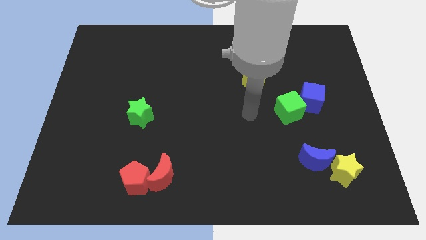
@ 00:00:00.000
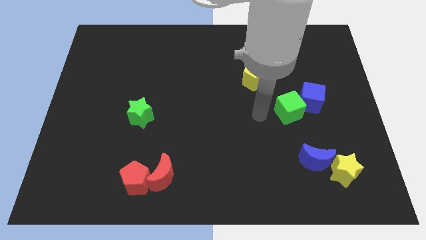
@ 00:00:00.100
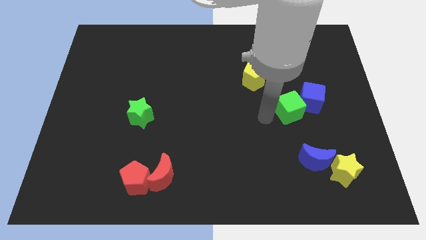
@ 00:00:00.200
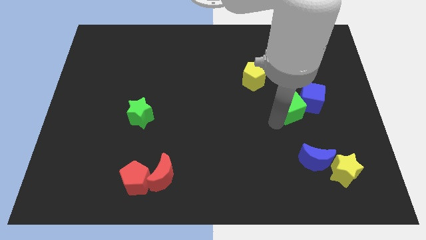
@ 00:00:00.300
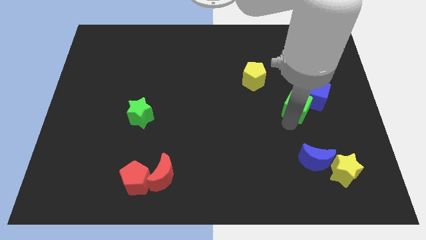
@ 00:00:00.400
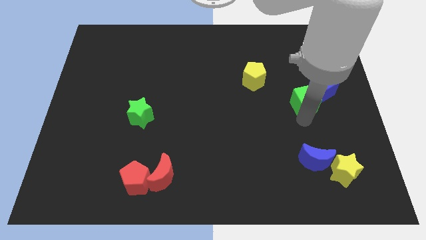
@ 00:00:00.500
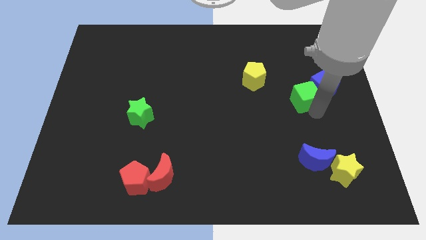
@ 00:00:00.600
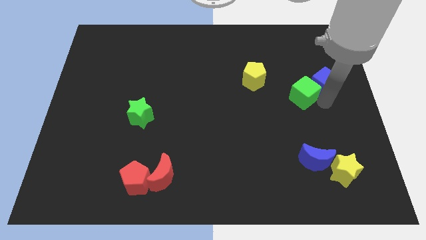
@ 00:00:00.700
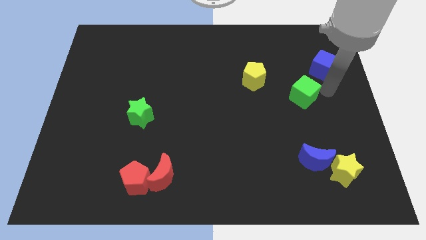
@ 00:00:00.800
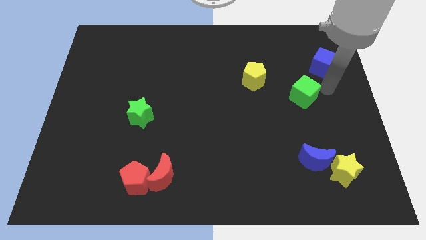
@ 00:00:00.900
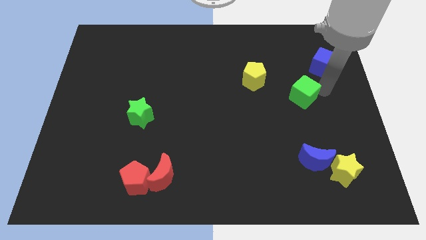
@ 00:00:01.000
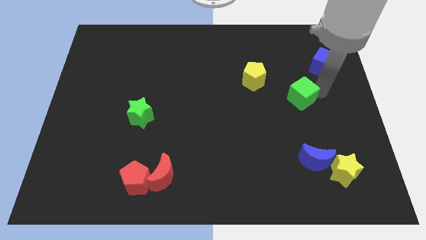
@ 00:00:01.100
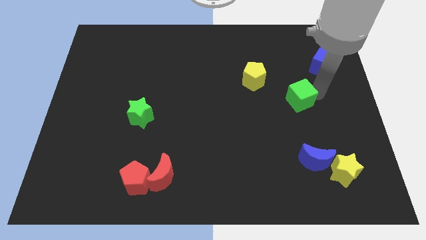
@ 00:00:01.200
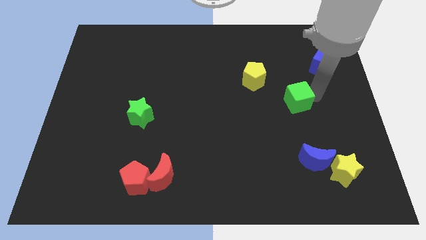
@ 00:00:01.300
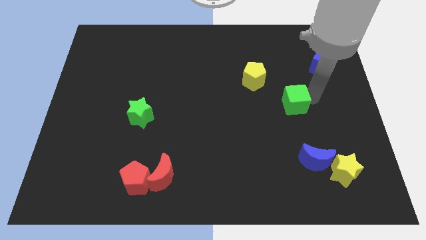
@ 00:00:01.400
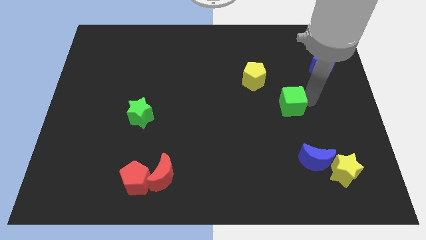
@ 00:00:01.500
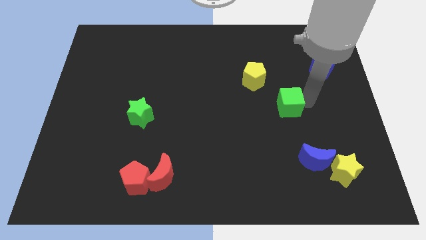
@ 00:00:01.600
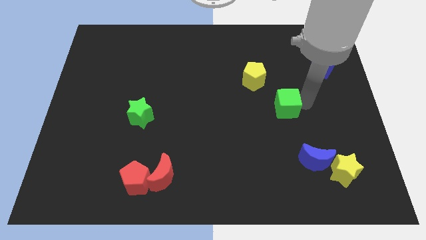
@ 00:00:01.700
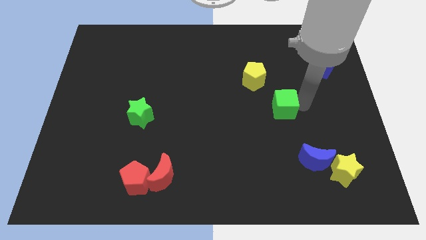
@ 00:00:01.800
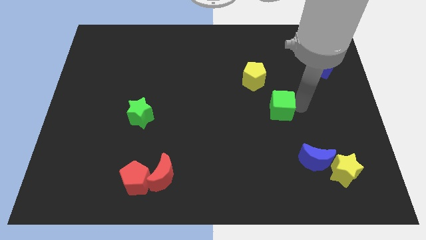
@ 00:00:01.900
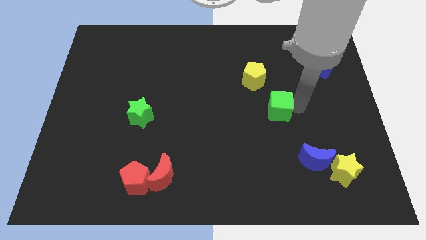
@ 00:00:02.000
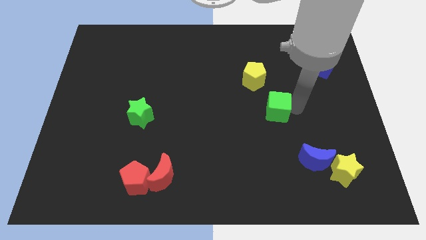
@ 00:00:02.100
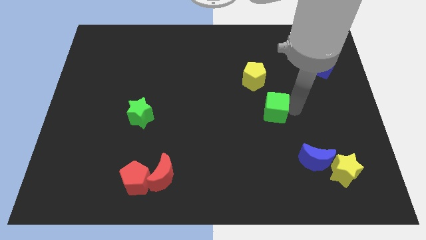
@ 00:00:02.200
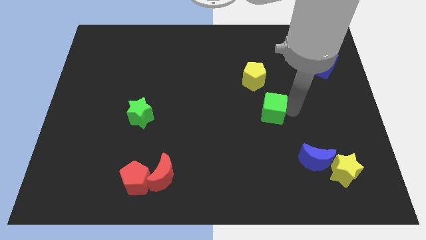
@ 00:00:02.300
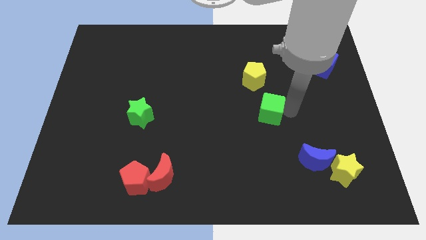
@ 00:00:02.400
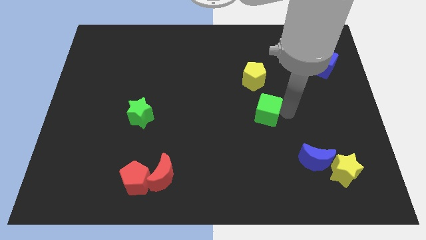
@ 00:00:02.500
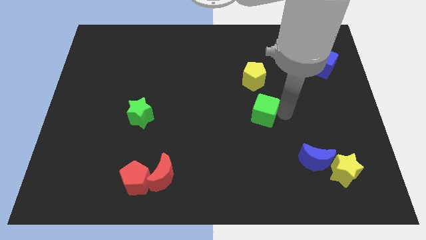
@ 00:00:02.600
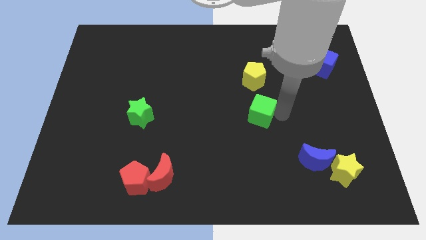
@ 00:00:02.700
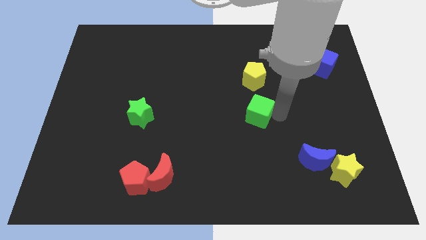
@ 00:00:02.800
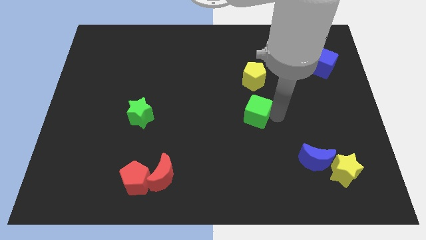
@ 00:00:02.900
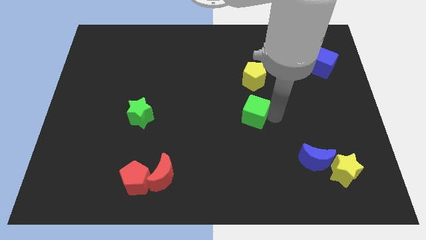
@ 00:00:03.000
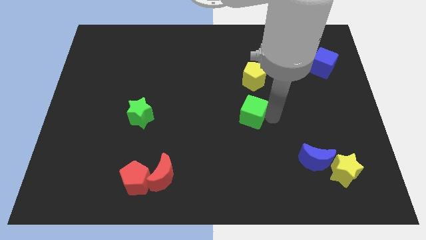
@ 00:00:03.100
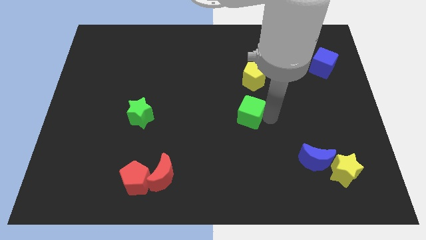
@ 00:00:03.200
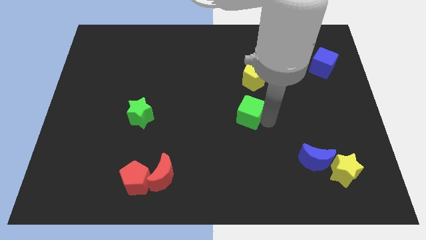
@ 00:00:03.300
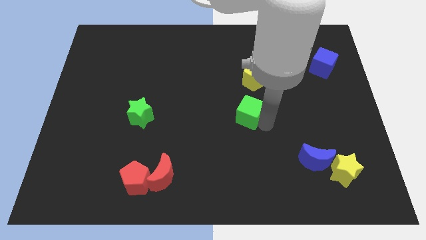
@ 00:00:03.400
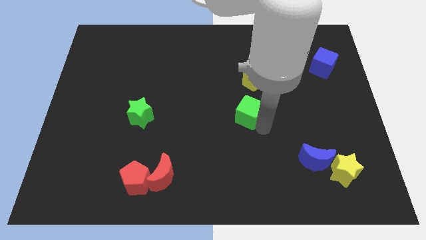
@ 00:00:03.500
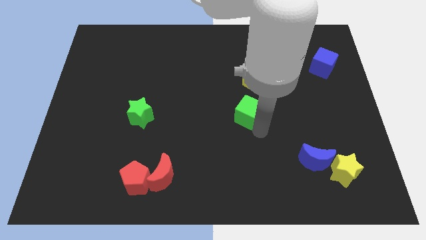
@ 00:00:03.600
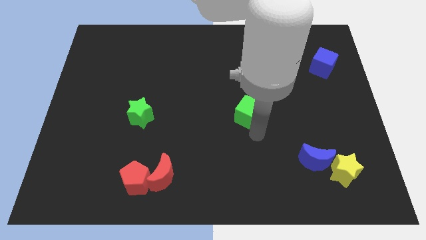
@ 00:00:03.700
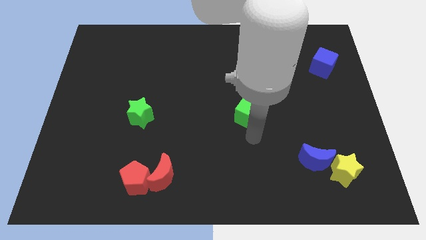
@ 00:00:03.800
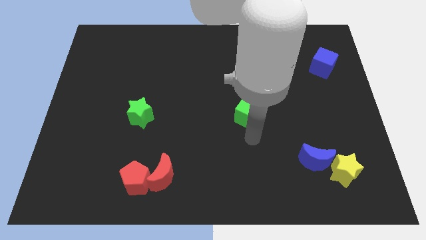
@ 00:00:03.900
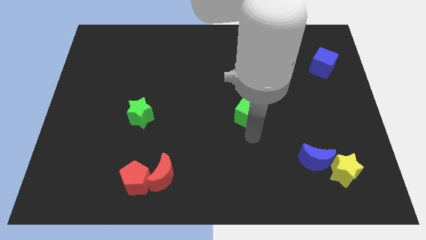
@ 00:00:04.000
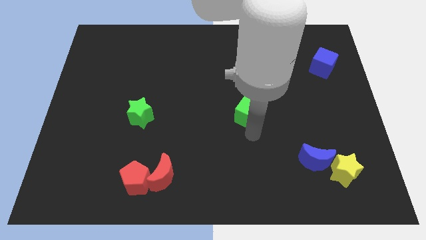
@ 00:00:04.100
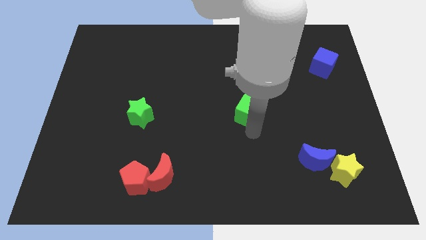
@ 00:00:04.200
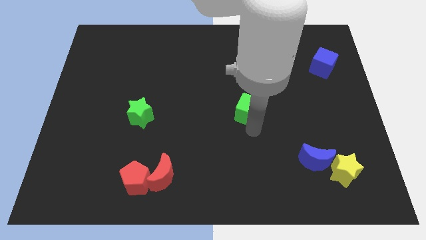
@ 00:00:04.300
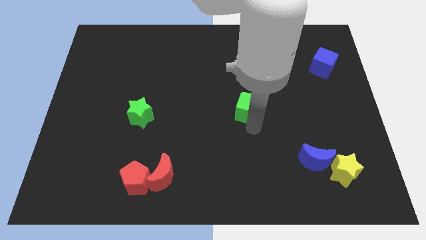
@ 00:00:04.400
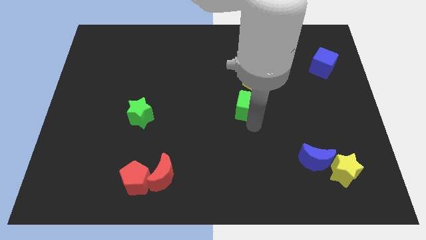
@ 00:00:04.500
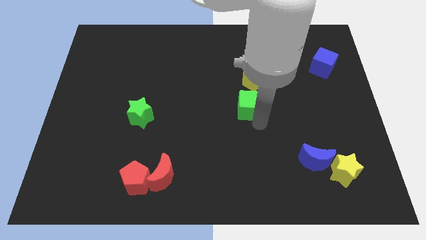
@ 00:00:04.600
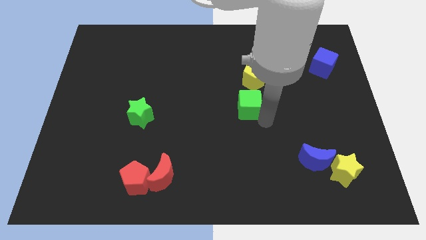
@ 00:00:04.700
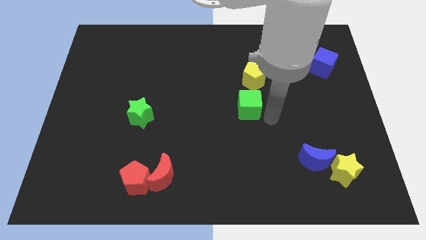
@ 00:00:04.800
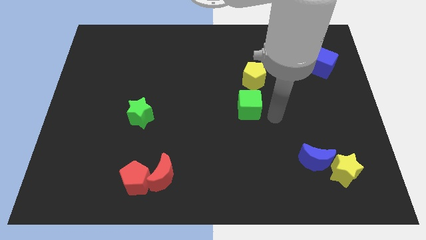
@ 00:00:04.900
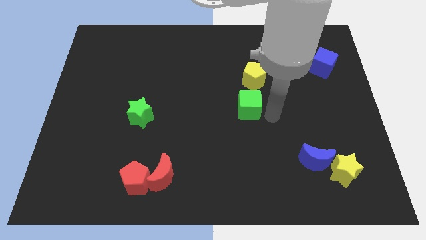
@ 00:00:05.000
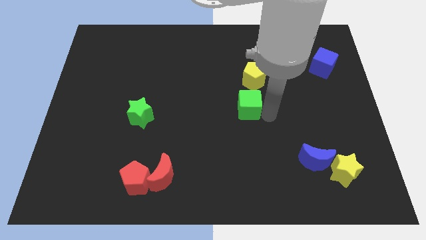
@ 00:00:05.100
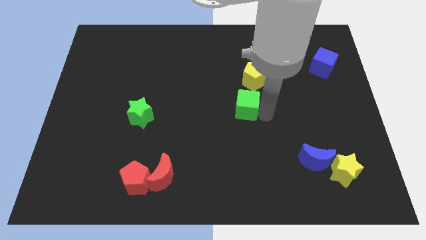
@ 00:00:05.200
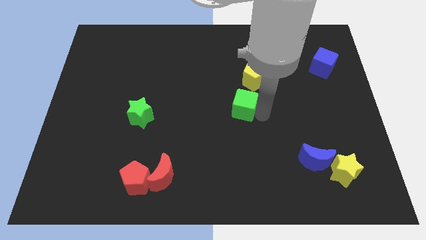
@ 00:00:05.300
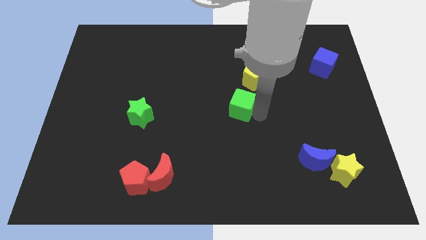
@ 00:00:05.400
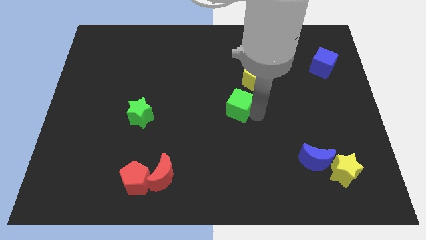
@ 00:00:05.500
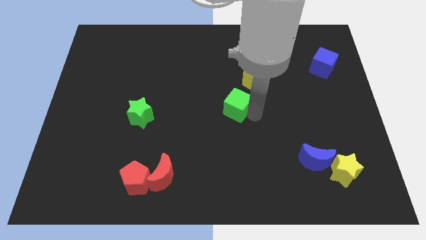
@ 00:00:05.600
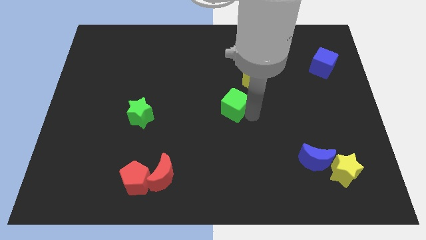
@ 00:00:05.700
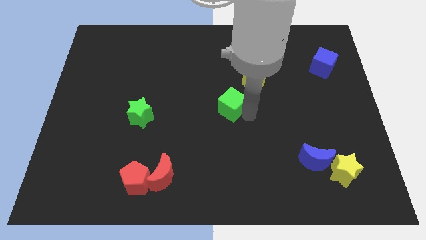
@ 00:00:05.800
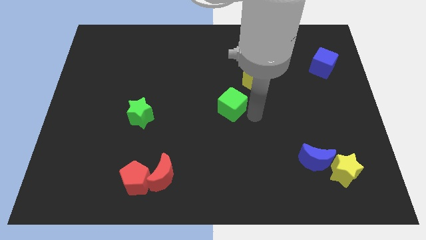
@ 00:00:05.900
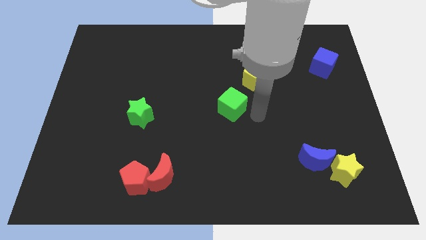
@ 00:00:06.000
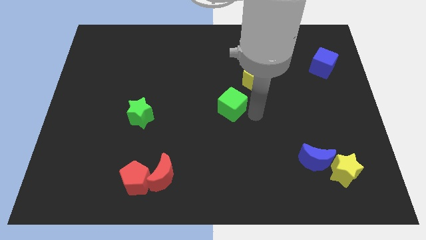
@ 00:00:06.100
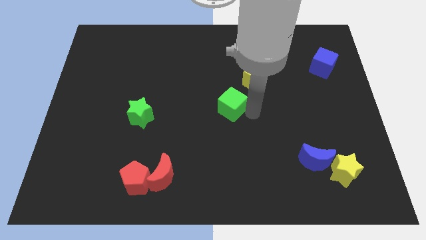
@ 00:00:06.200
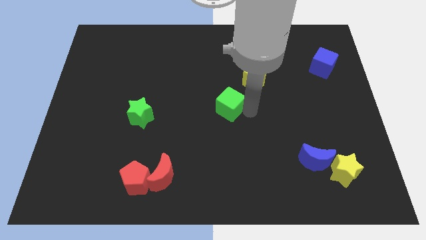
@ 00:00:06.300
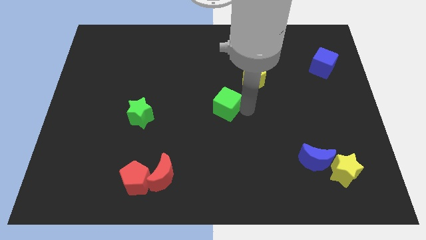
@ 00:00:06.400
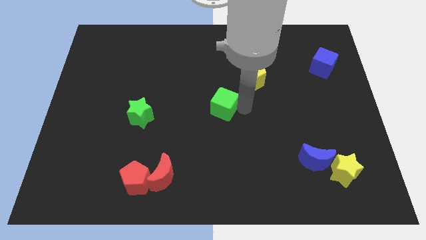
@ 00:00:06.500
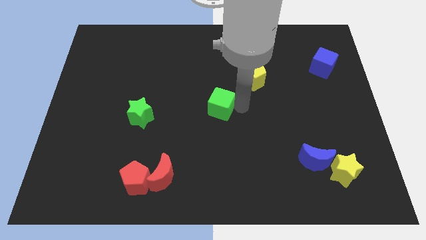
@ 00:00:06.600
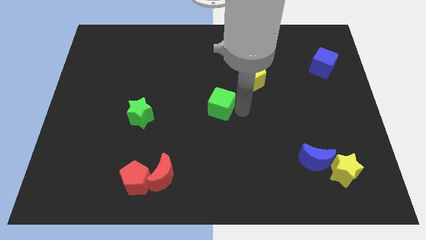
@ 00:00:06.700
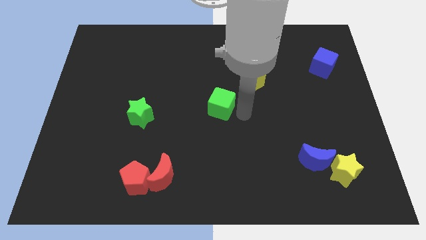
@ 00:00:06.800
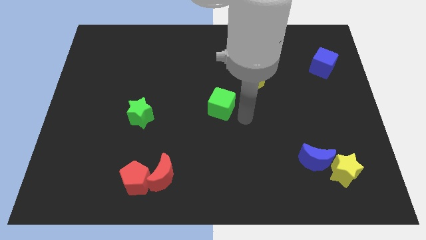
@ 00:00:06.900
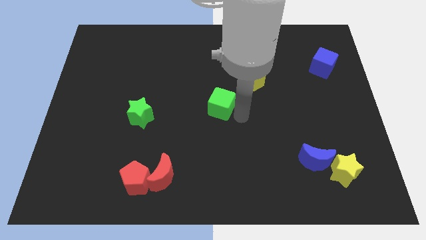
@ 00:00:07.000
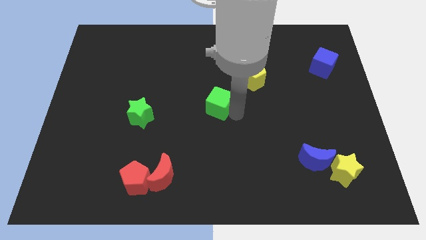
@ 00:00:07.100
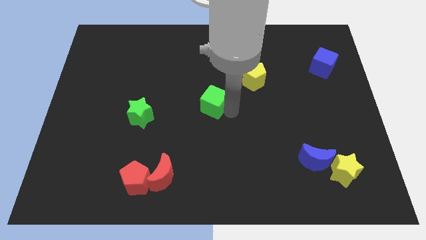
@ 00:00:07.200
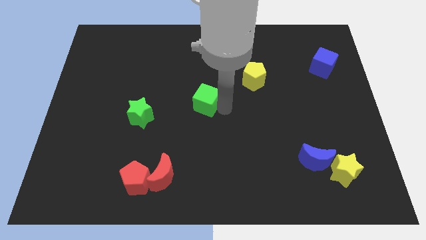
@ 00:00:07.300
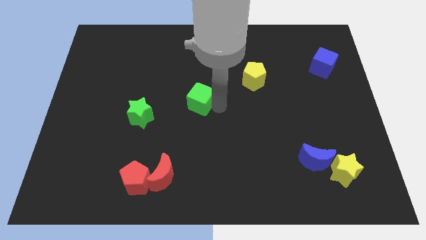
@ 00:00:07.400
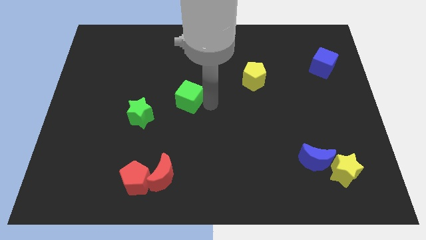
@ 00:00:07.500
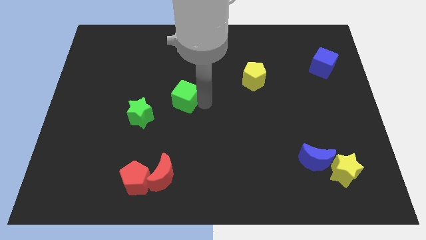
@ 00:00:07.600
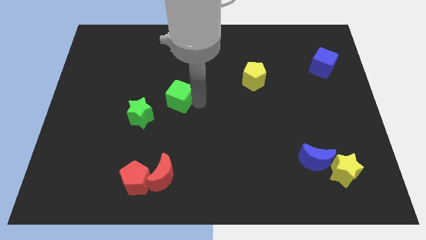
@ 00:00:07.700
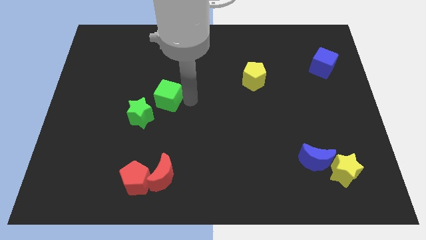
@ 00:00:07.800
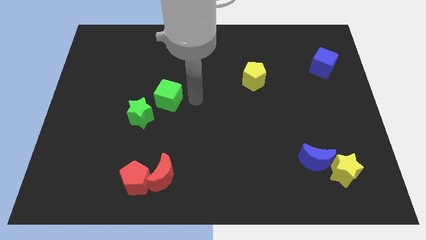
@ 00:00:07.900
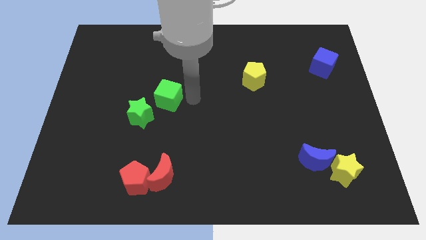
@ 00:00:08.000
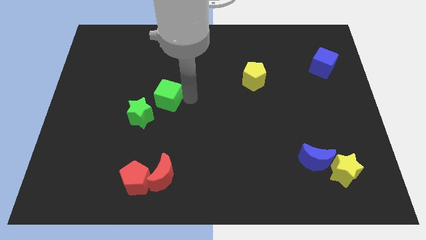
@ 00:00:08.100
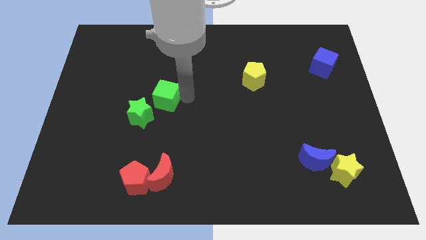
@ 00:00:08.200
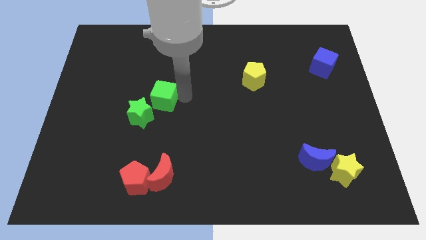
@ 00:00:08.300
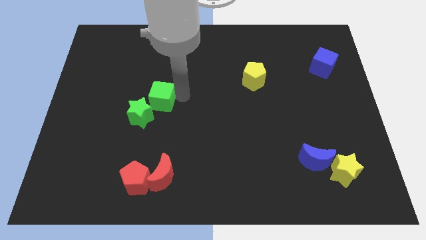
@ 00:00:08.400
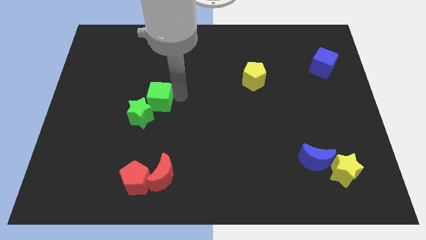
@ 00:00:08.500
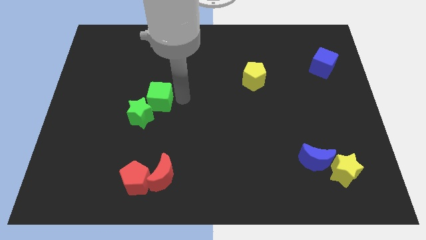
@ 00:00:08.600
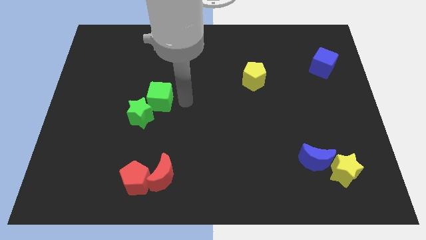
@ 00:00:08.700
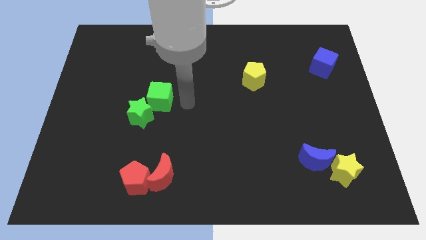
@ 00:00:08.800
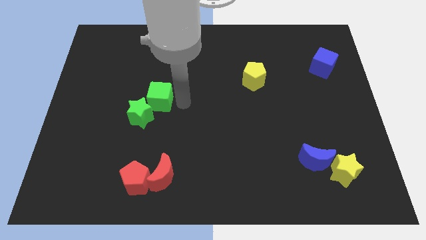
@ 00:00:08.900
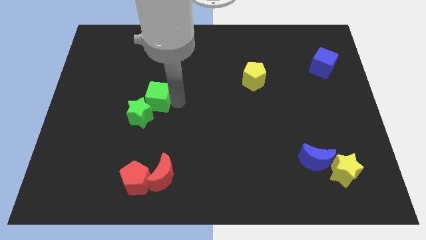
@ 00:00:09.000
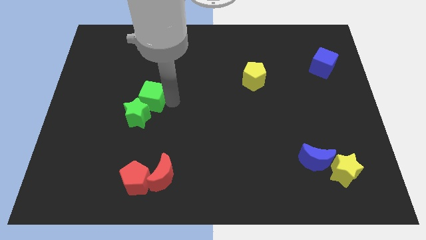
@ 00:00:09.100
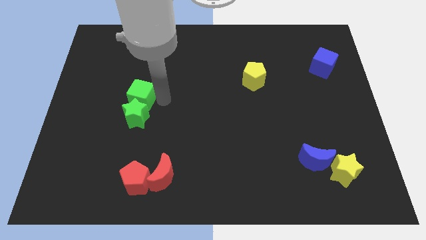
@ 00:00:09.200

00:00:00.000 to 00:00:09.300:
slide the green cube to the top left side of the green star
